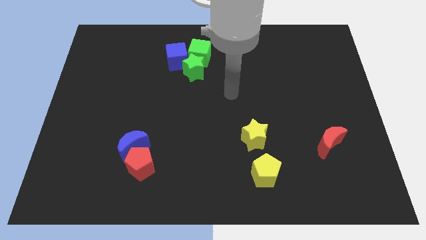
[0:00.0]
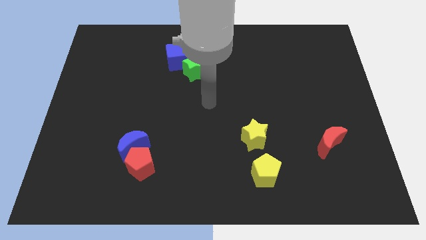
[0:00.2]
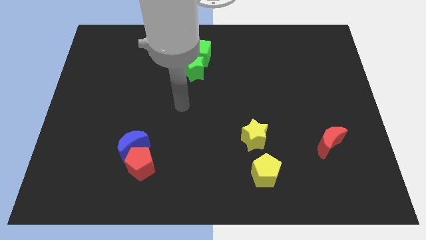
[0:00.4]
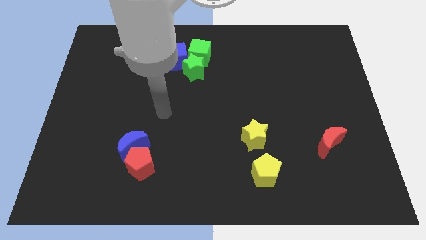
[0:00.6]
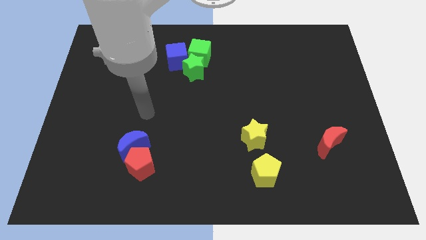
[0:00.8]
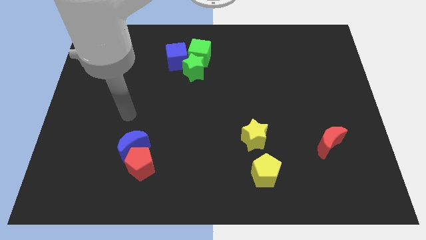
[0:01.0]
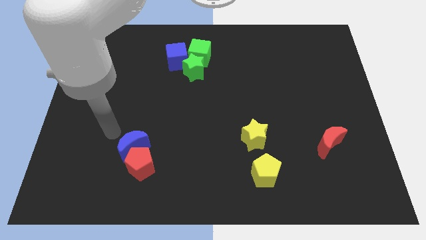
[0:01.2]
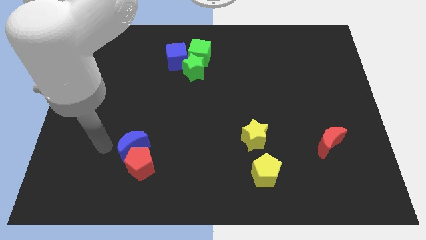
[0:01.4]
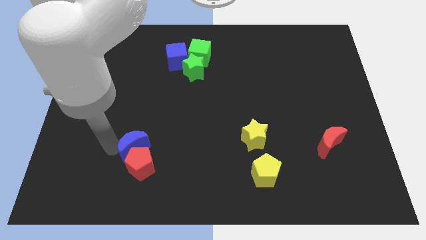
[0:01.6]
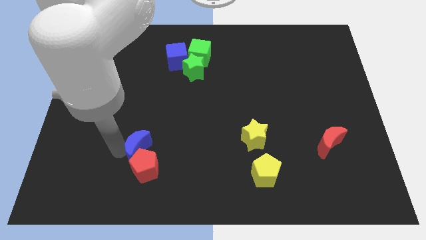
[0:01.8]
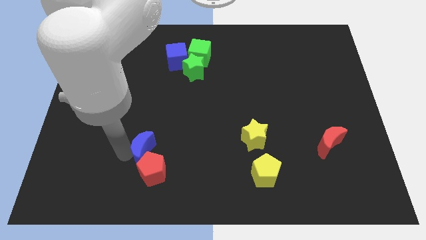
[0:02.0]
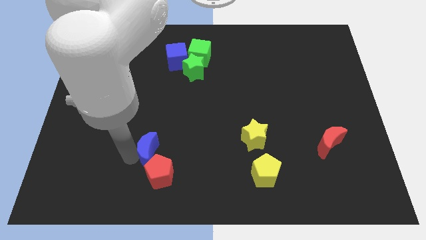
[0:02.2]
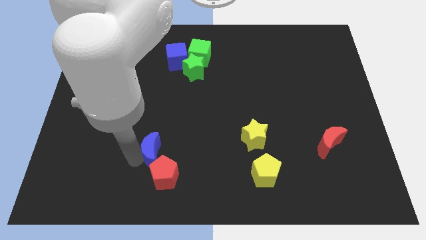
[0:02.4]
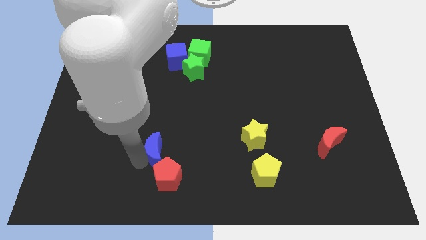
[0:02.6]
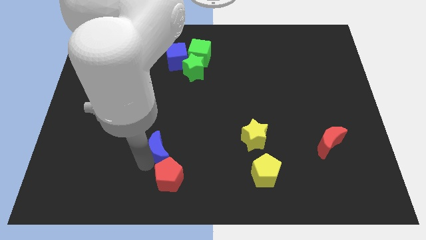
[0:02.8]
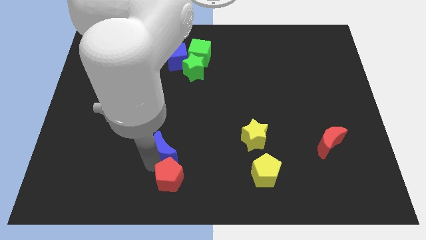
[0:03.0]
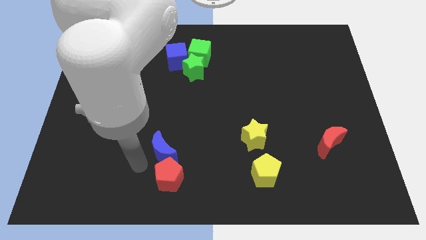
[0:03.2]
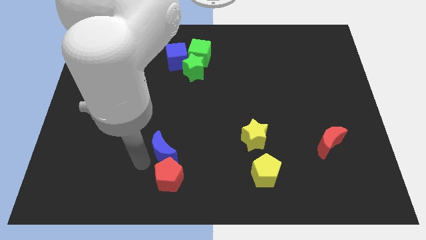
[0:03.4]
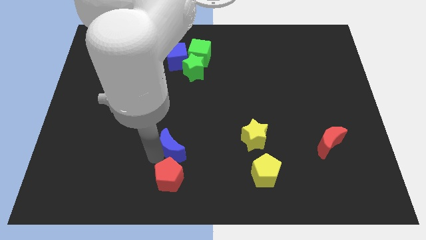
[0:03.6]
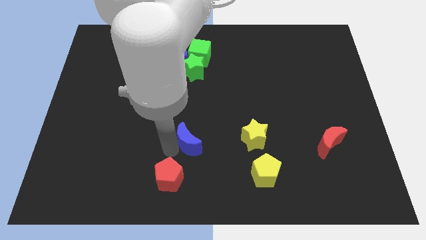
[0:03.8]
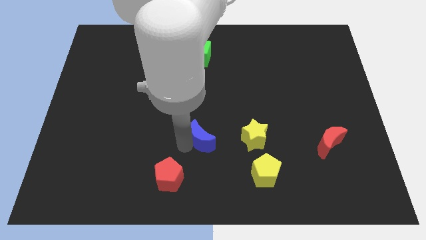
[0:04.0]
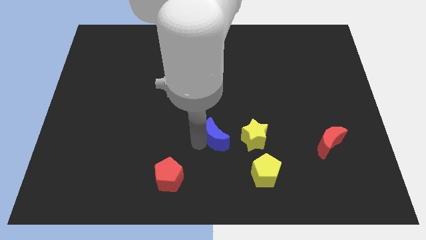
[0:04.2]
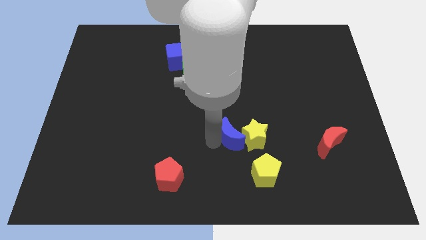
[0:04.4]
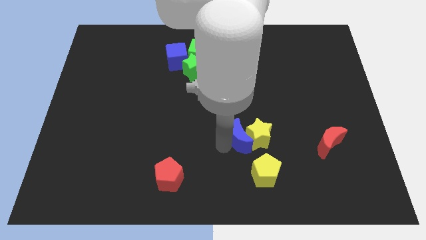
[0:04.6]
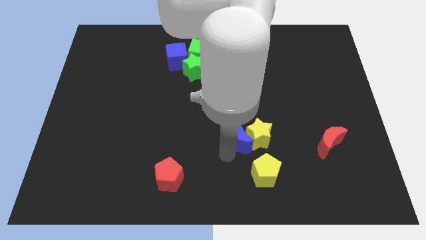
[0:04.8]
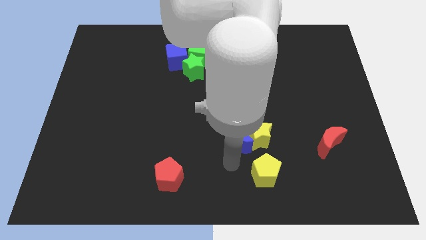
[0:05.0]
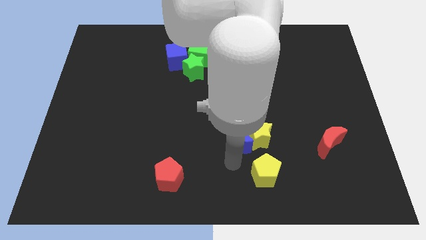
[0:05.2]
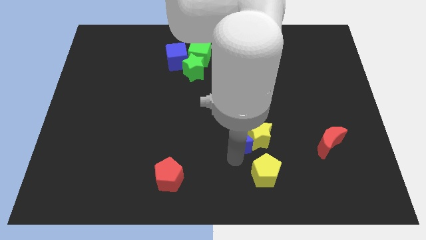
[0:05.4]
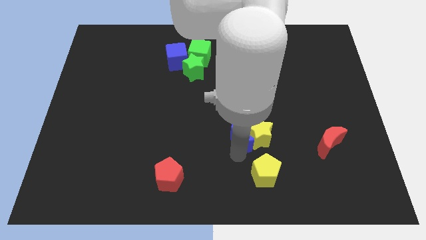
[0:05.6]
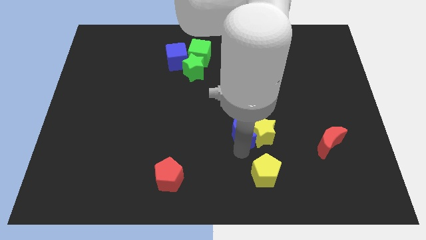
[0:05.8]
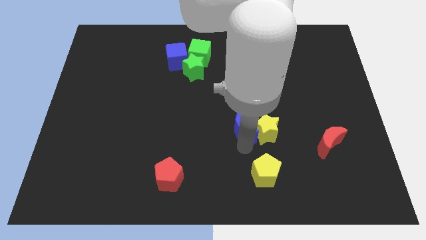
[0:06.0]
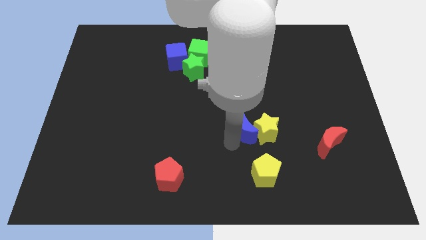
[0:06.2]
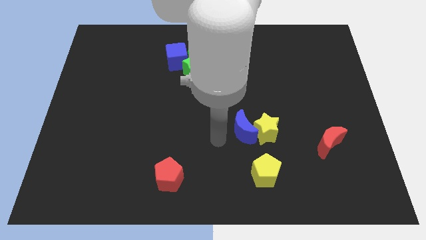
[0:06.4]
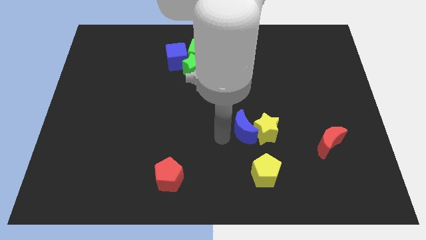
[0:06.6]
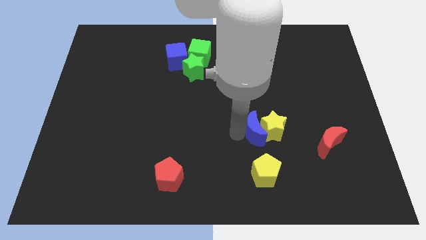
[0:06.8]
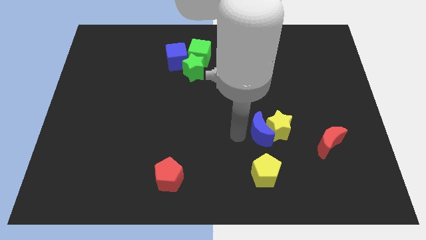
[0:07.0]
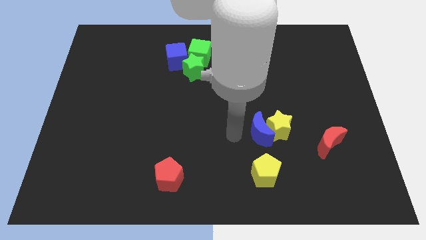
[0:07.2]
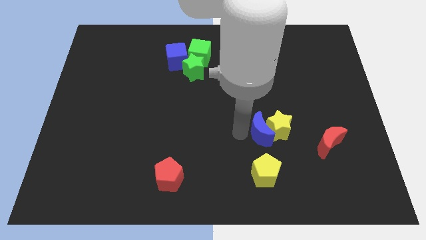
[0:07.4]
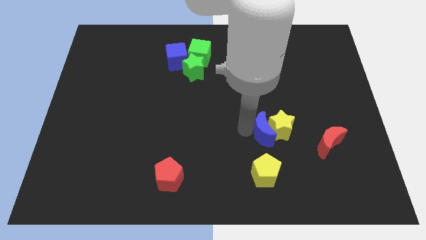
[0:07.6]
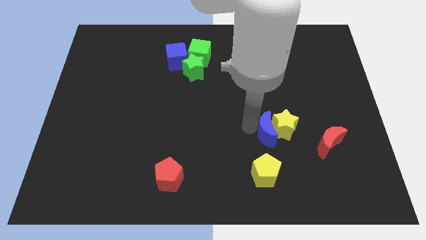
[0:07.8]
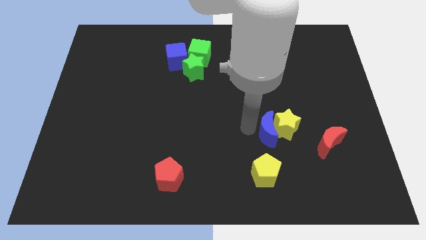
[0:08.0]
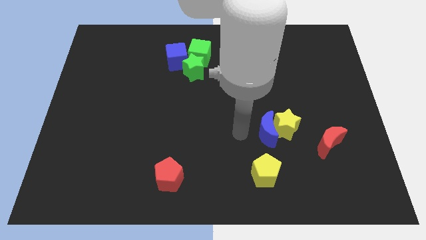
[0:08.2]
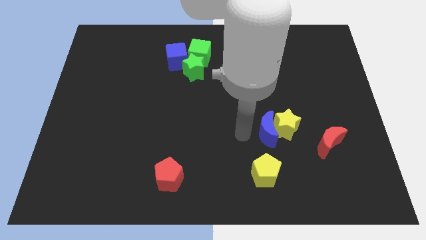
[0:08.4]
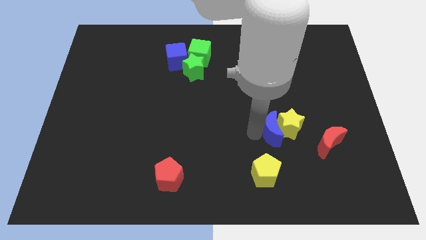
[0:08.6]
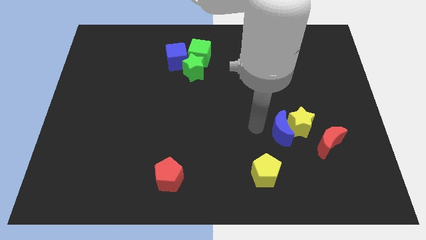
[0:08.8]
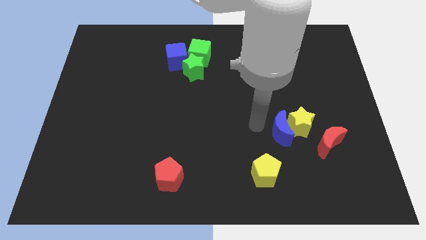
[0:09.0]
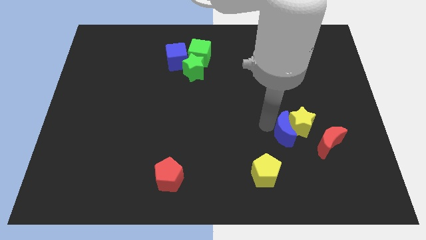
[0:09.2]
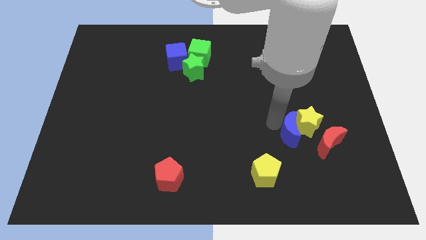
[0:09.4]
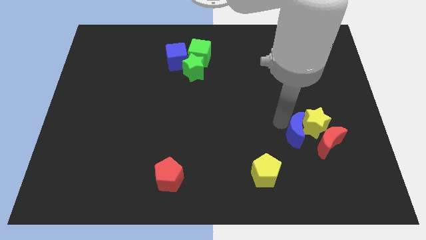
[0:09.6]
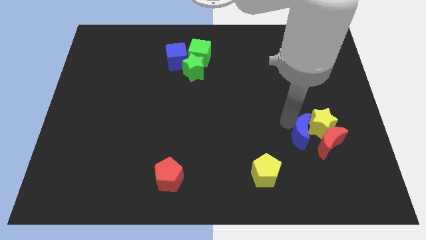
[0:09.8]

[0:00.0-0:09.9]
move the blue moon towards the red moon

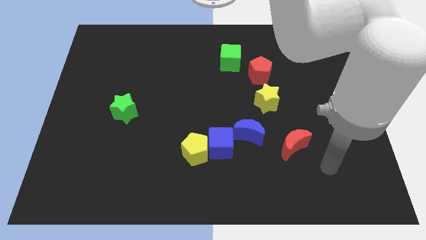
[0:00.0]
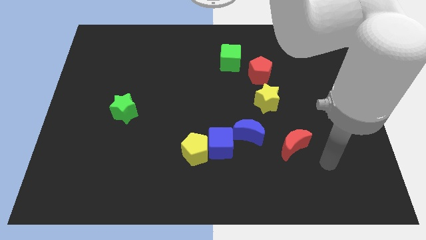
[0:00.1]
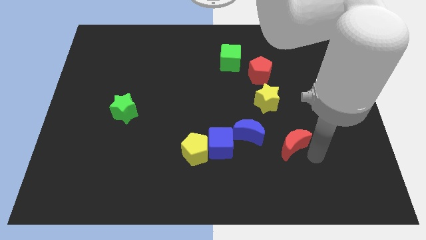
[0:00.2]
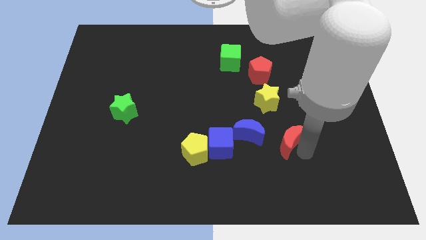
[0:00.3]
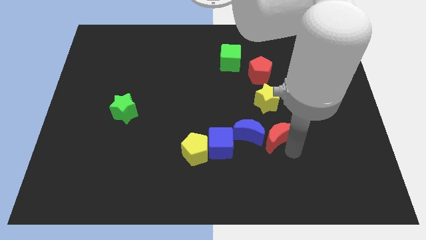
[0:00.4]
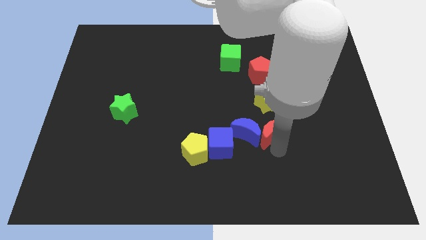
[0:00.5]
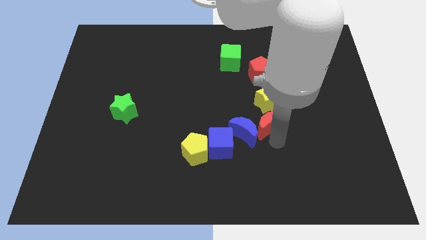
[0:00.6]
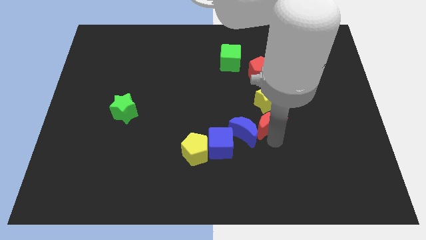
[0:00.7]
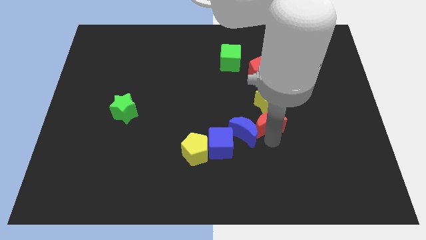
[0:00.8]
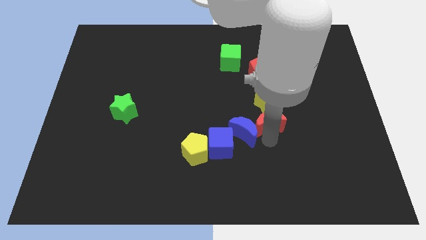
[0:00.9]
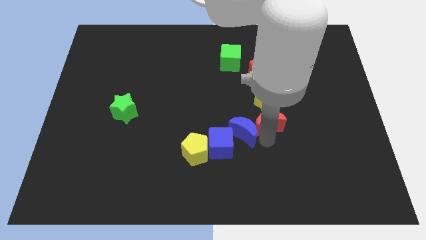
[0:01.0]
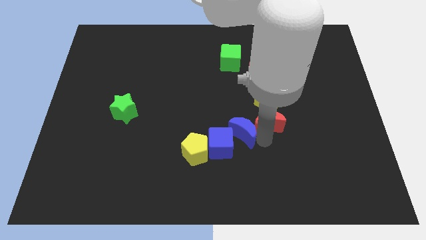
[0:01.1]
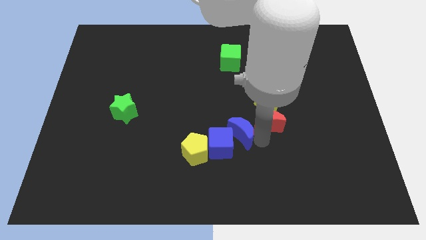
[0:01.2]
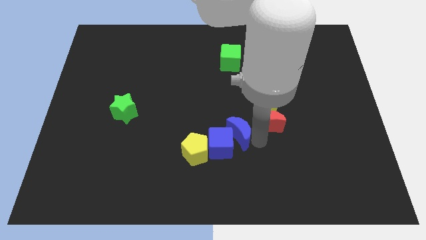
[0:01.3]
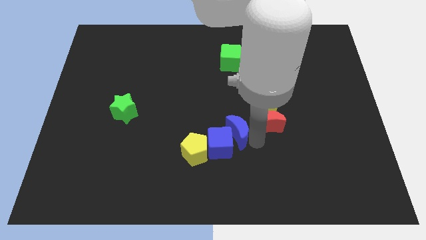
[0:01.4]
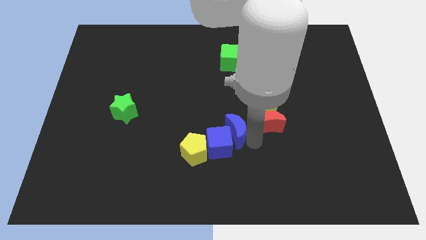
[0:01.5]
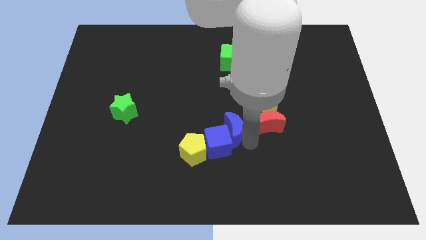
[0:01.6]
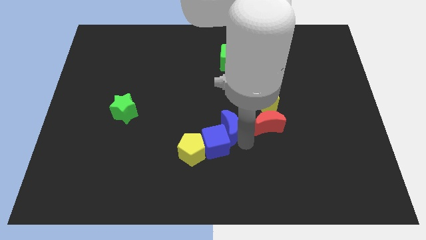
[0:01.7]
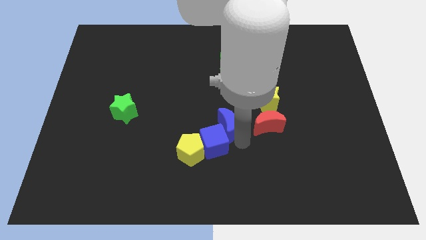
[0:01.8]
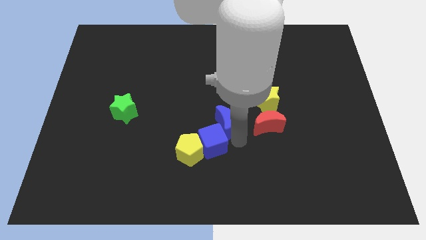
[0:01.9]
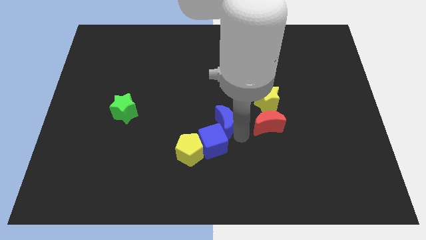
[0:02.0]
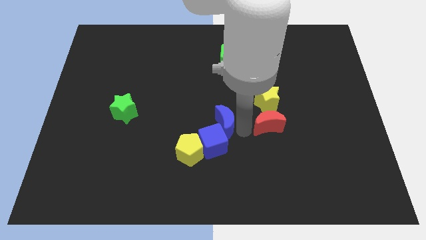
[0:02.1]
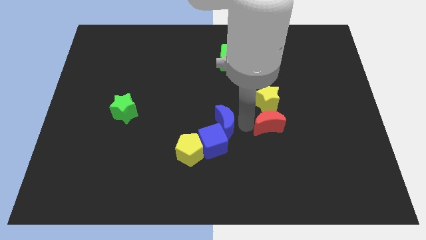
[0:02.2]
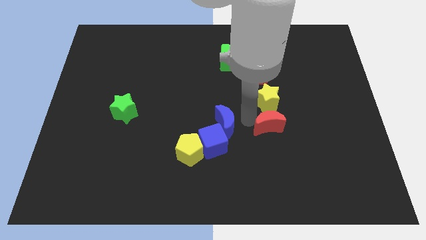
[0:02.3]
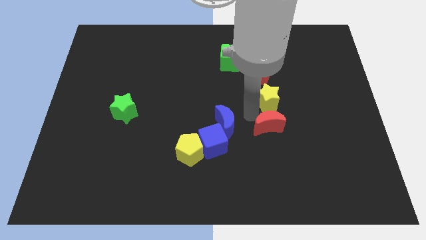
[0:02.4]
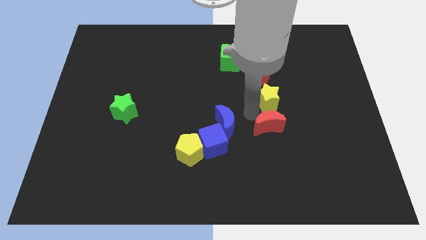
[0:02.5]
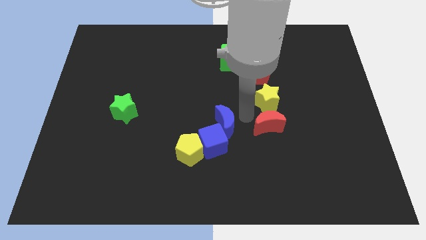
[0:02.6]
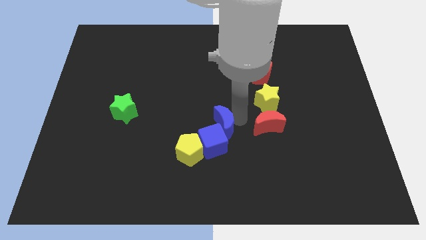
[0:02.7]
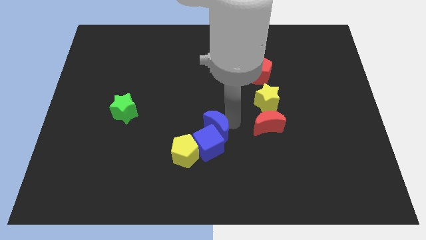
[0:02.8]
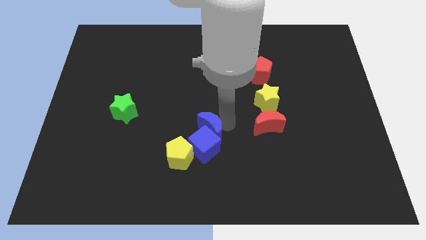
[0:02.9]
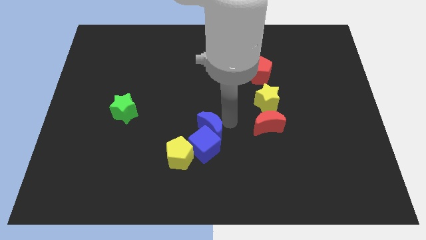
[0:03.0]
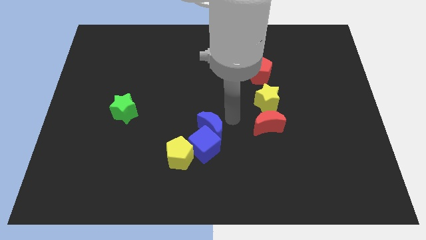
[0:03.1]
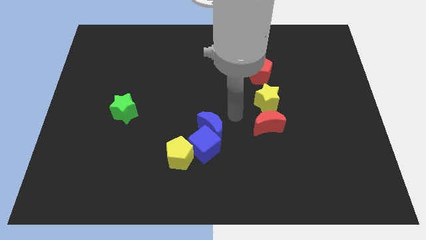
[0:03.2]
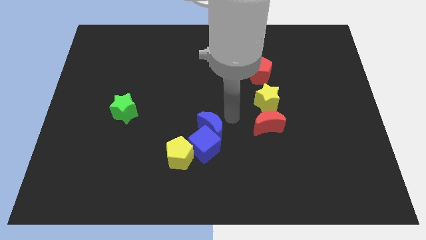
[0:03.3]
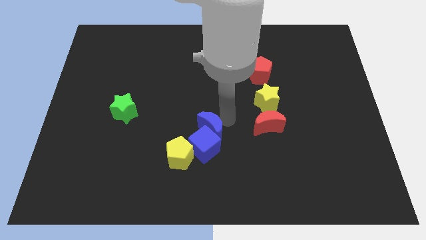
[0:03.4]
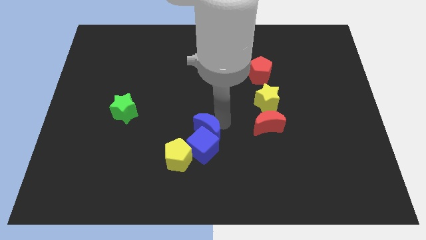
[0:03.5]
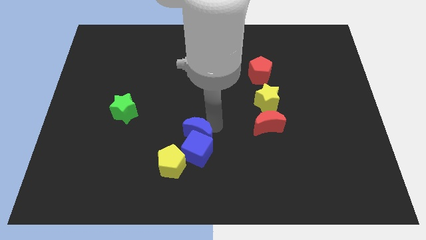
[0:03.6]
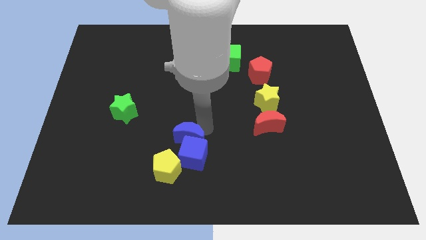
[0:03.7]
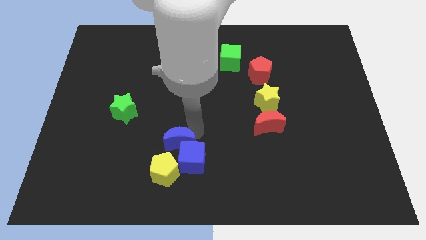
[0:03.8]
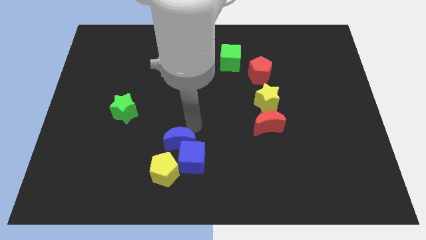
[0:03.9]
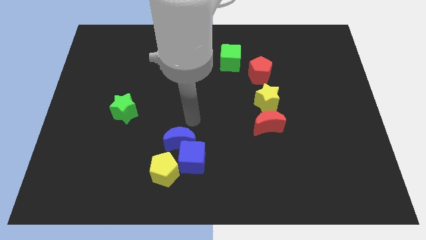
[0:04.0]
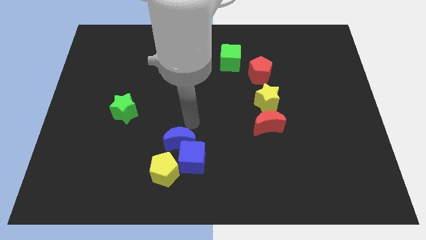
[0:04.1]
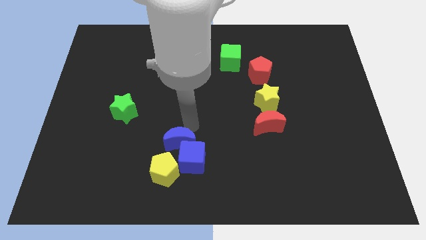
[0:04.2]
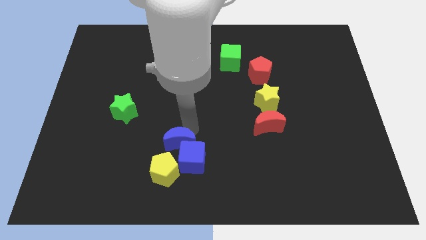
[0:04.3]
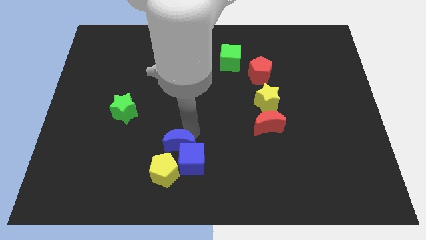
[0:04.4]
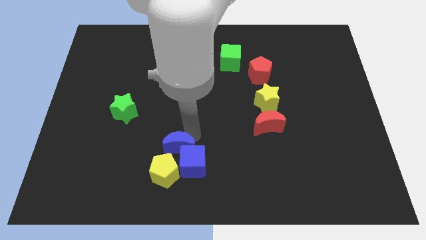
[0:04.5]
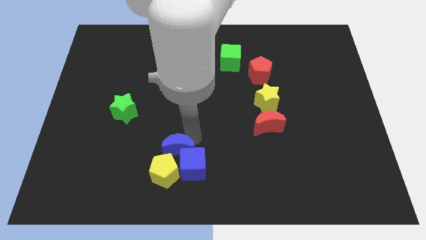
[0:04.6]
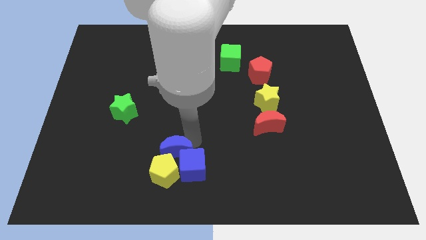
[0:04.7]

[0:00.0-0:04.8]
slide the blue moon close to the yellow pentagon
